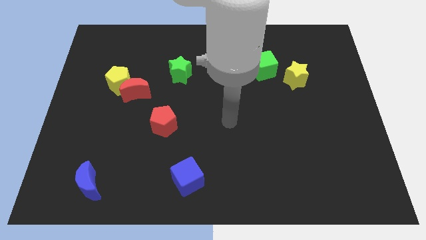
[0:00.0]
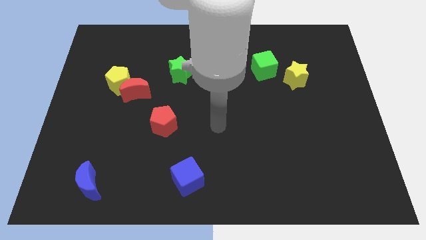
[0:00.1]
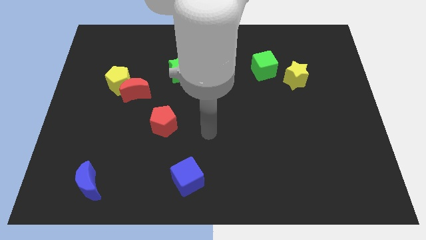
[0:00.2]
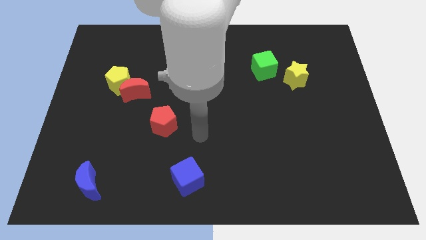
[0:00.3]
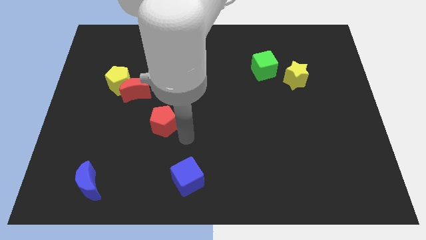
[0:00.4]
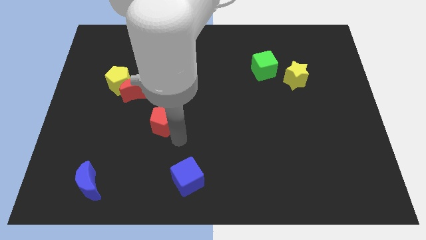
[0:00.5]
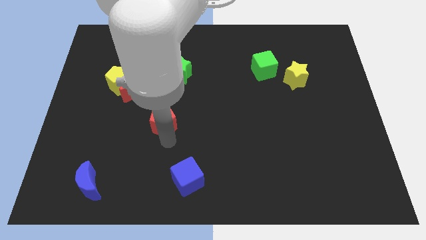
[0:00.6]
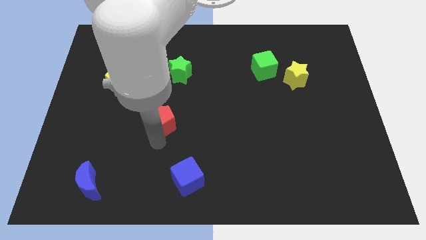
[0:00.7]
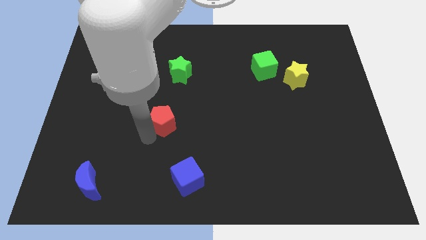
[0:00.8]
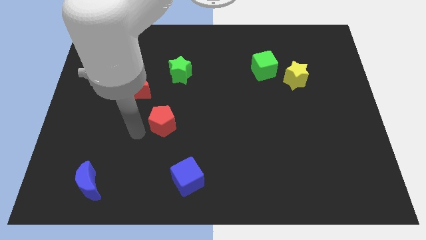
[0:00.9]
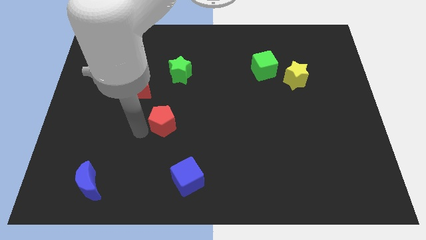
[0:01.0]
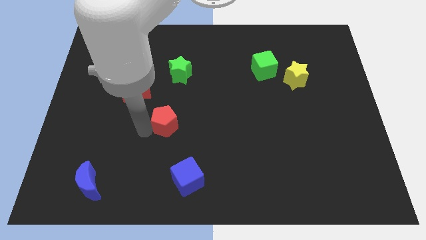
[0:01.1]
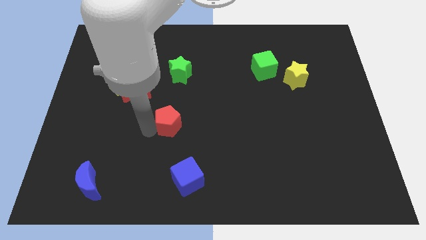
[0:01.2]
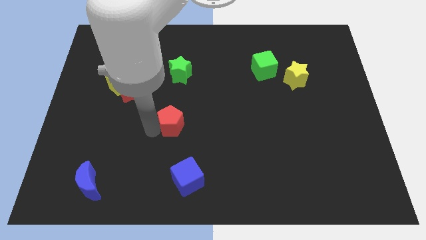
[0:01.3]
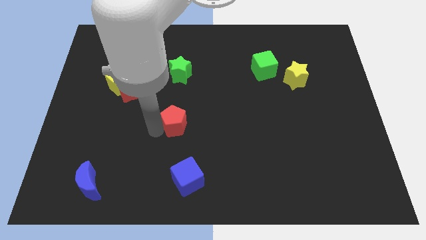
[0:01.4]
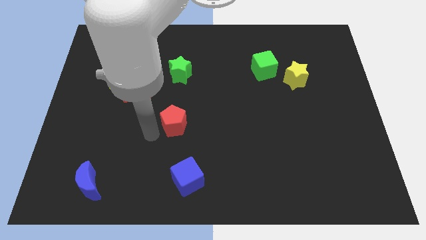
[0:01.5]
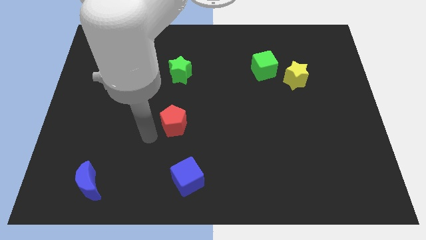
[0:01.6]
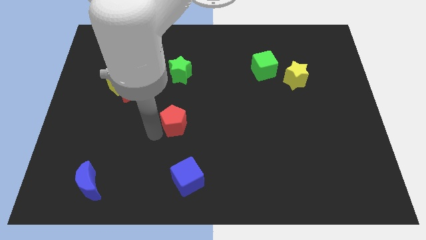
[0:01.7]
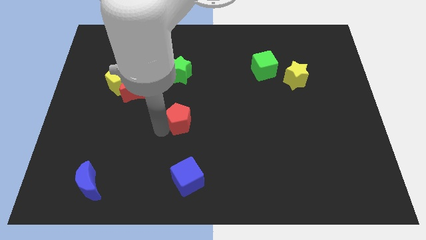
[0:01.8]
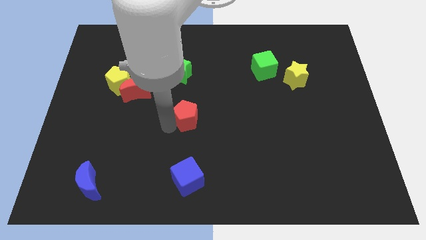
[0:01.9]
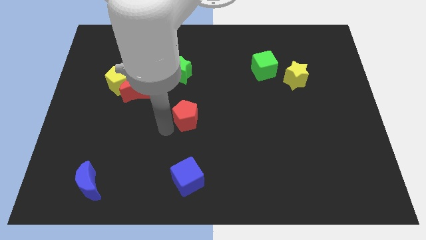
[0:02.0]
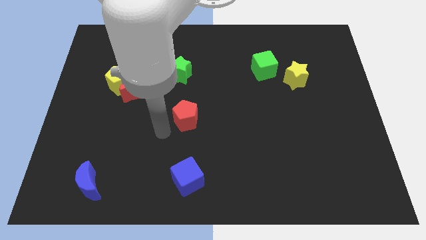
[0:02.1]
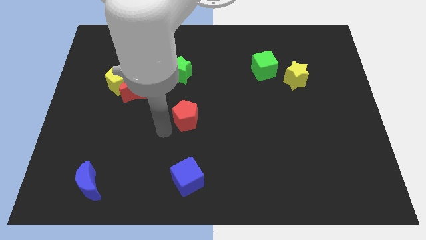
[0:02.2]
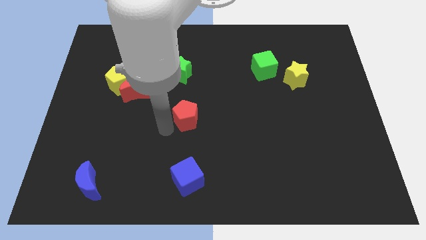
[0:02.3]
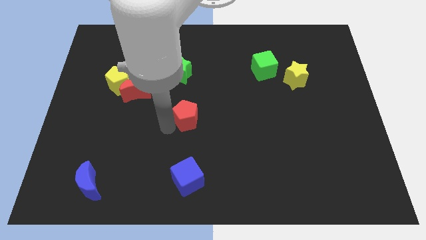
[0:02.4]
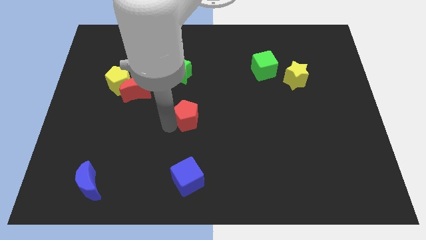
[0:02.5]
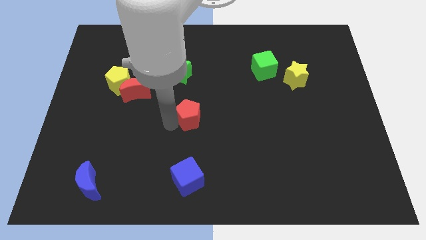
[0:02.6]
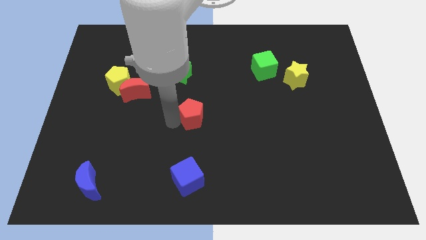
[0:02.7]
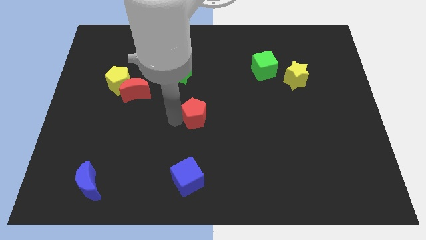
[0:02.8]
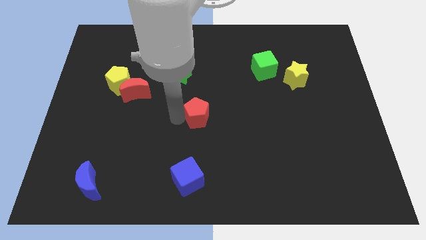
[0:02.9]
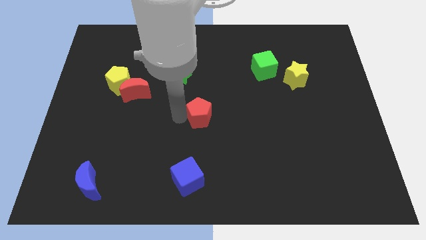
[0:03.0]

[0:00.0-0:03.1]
slightly slide the red pentagon up and right

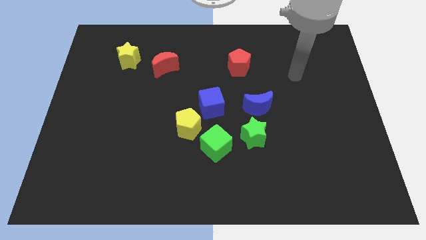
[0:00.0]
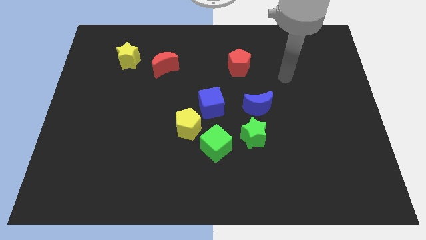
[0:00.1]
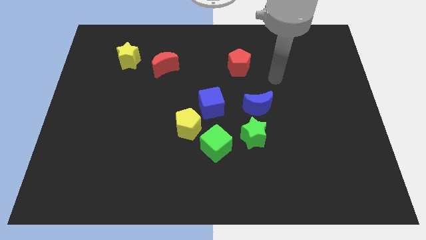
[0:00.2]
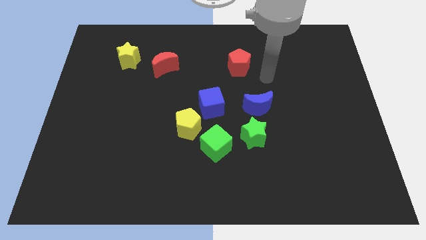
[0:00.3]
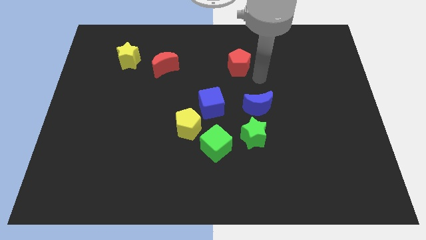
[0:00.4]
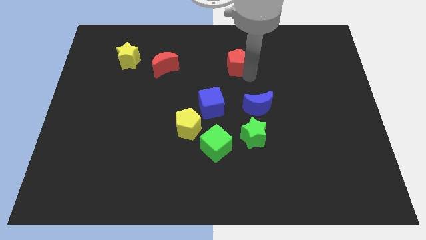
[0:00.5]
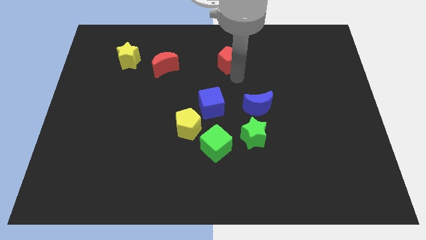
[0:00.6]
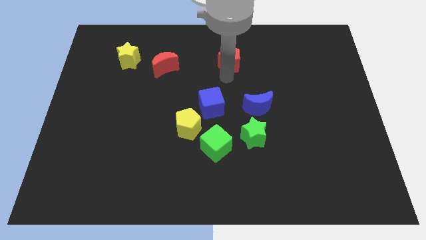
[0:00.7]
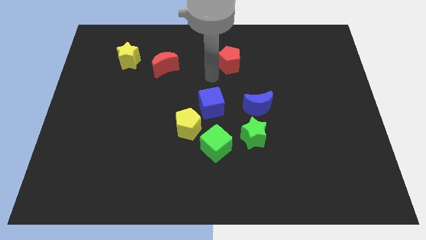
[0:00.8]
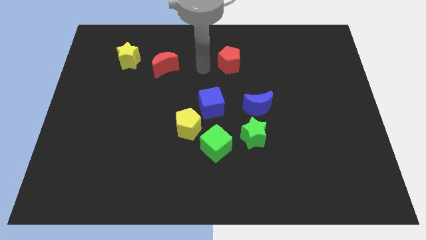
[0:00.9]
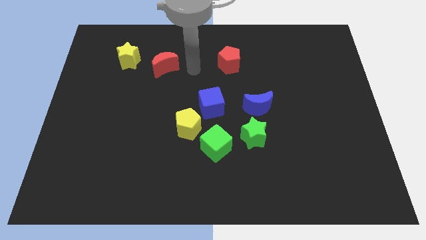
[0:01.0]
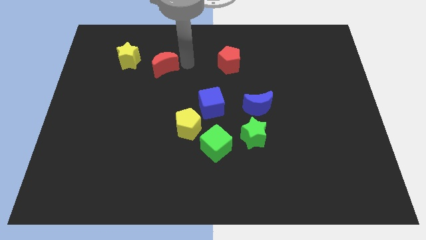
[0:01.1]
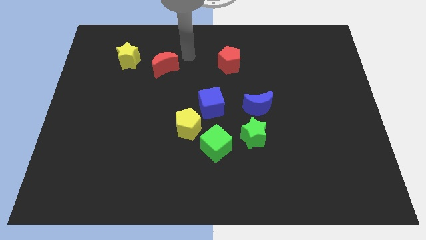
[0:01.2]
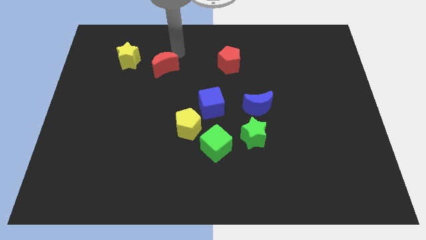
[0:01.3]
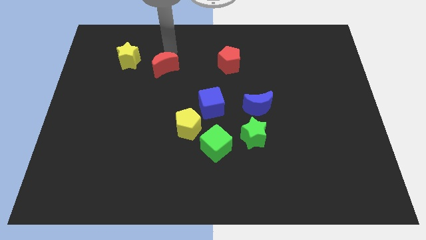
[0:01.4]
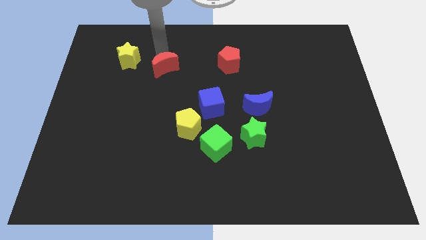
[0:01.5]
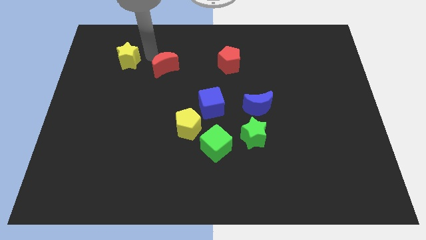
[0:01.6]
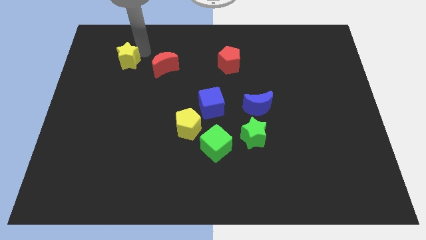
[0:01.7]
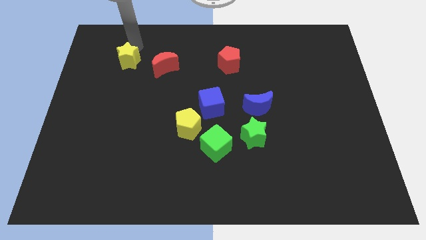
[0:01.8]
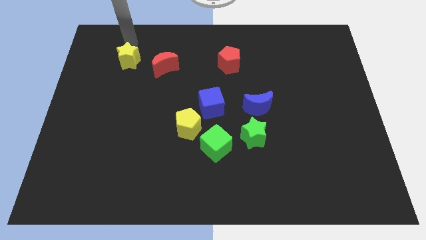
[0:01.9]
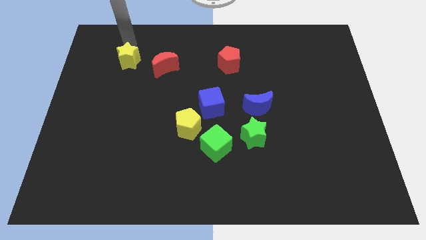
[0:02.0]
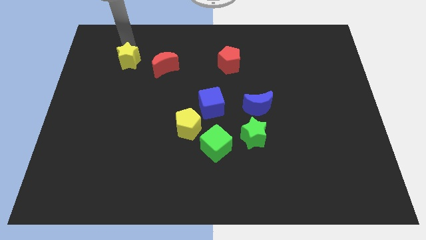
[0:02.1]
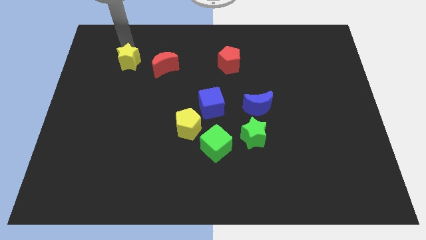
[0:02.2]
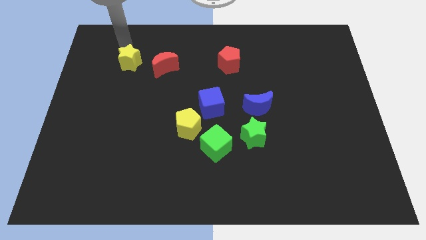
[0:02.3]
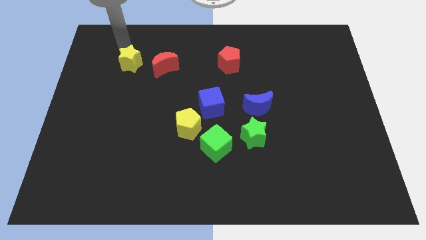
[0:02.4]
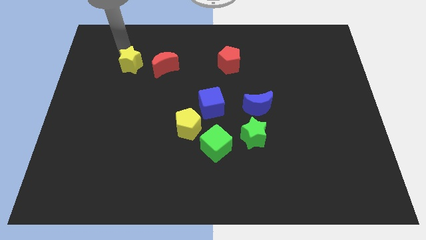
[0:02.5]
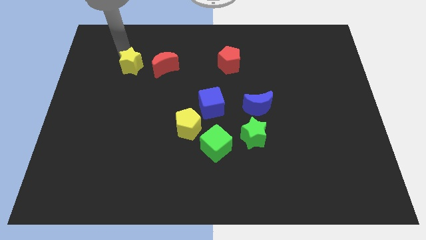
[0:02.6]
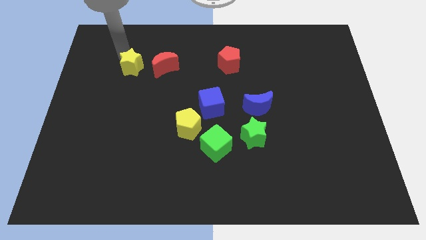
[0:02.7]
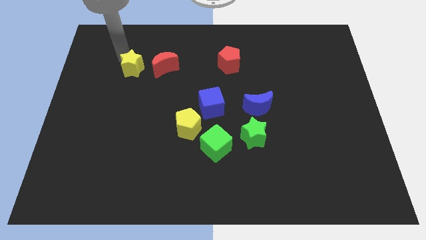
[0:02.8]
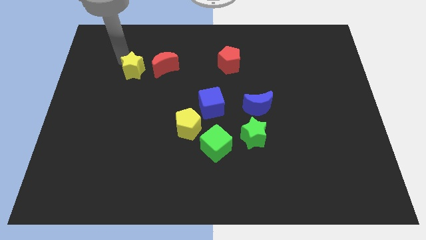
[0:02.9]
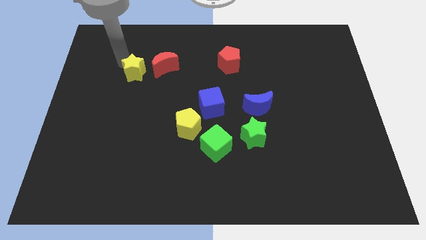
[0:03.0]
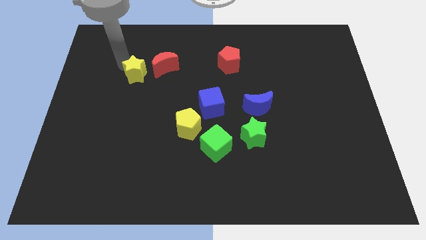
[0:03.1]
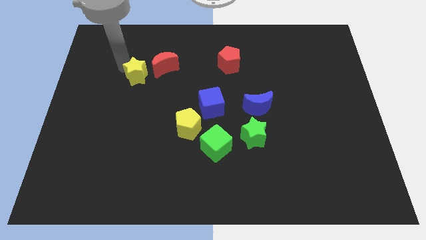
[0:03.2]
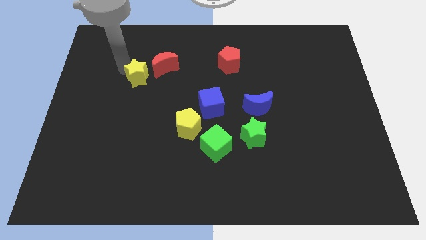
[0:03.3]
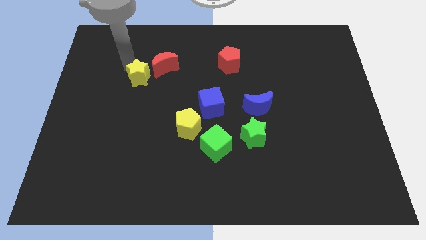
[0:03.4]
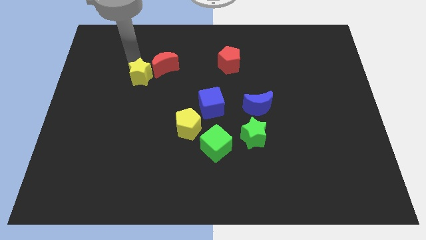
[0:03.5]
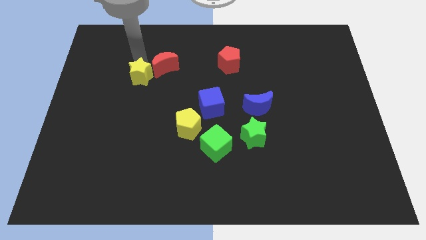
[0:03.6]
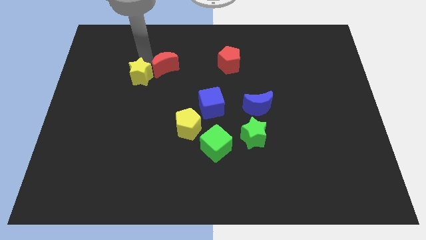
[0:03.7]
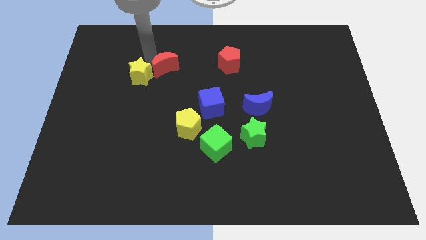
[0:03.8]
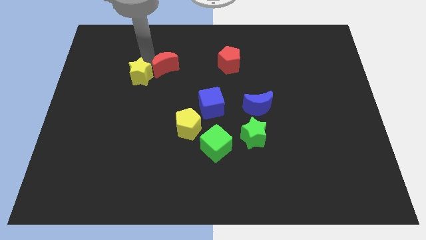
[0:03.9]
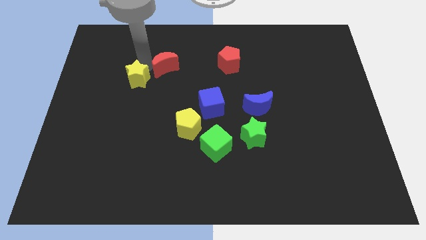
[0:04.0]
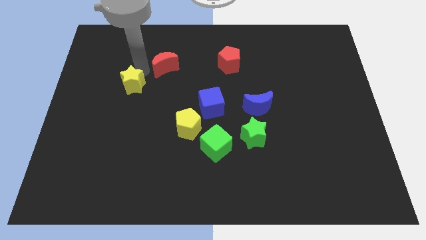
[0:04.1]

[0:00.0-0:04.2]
move the yellow star down a bit

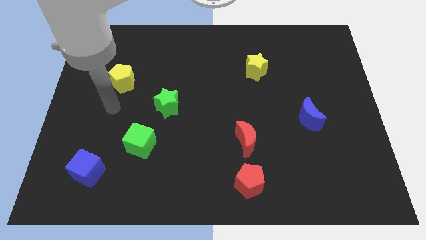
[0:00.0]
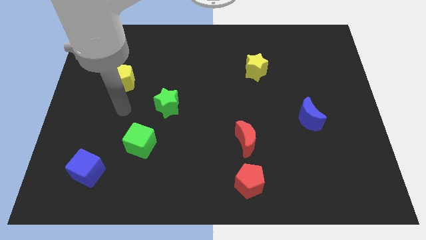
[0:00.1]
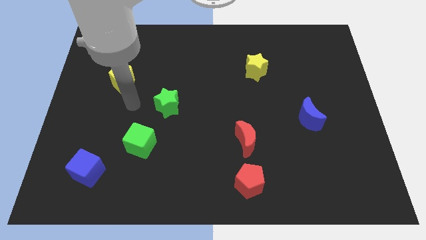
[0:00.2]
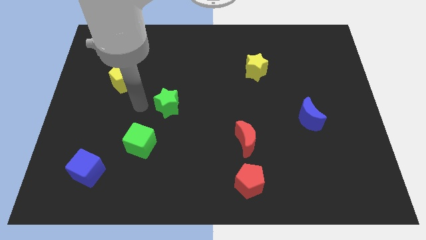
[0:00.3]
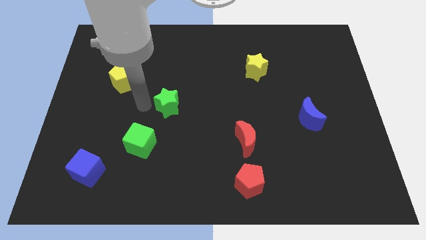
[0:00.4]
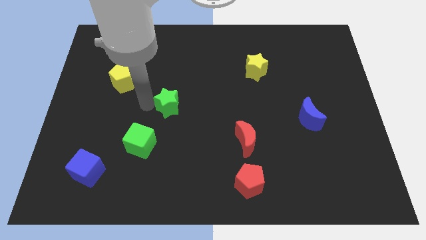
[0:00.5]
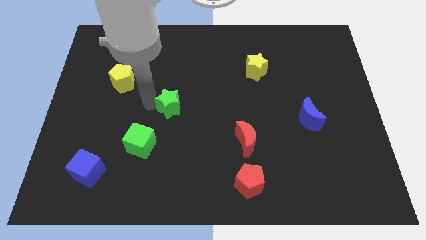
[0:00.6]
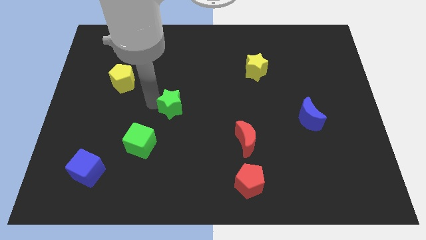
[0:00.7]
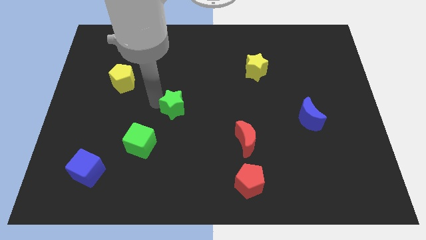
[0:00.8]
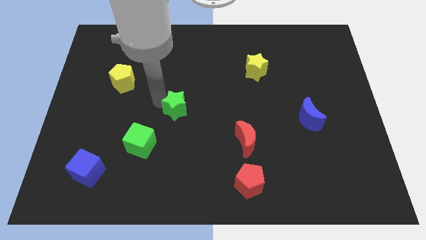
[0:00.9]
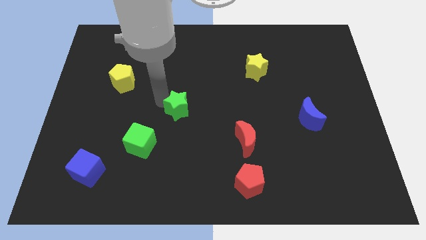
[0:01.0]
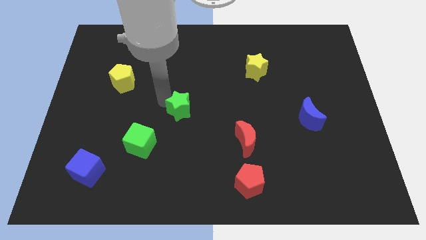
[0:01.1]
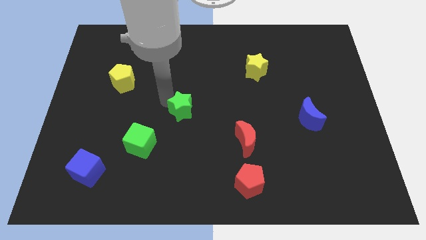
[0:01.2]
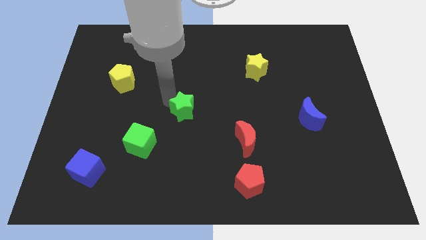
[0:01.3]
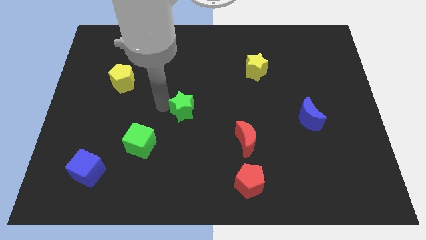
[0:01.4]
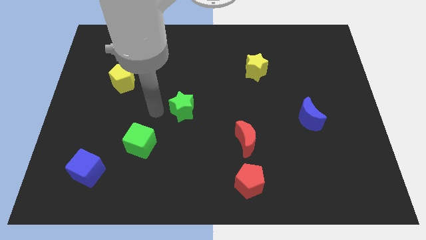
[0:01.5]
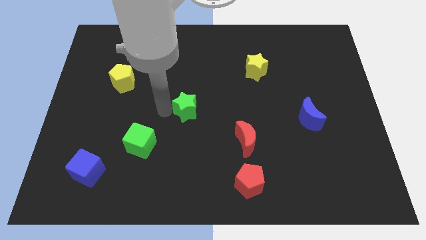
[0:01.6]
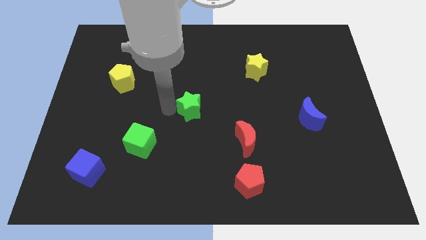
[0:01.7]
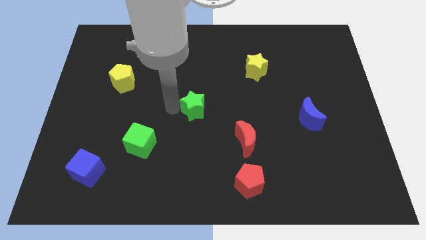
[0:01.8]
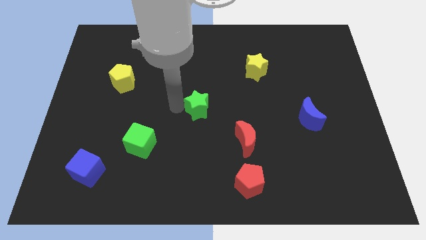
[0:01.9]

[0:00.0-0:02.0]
push the green star a bit to the right
